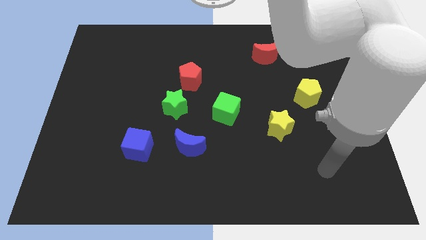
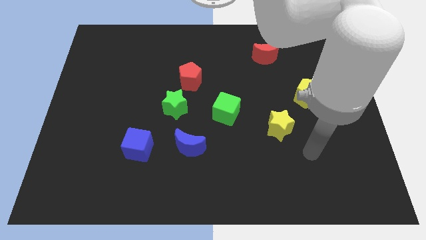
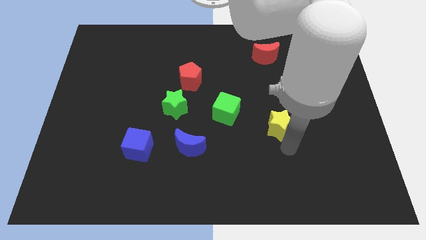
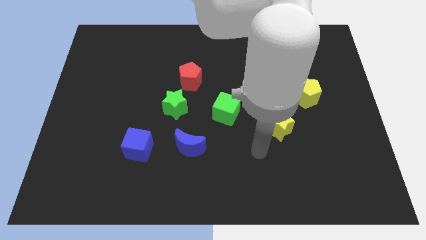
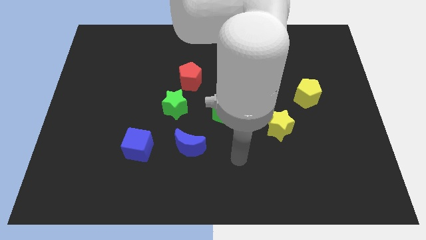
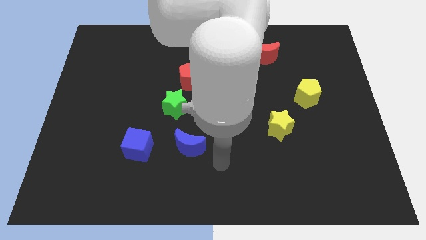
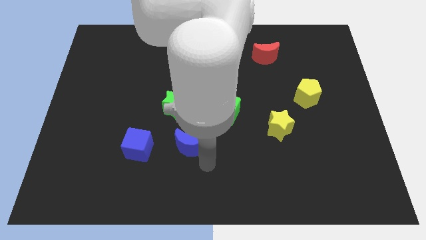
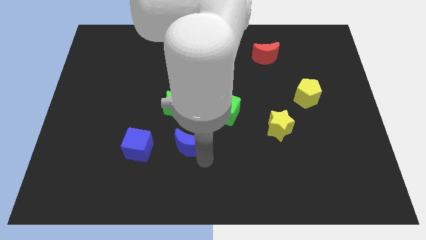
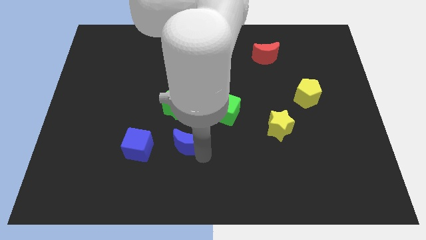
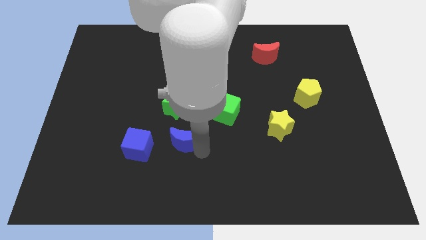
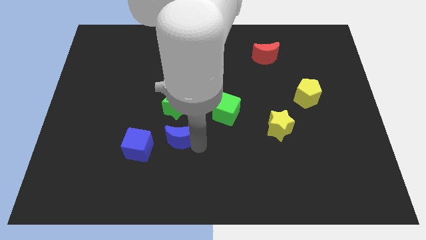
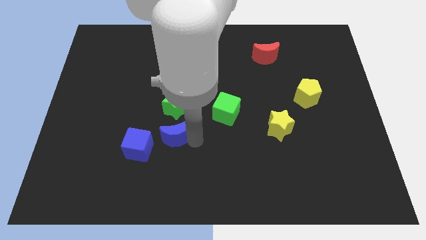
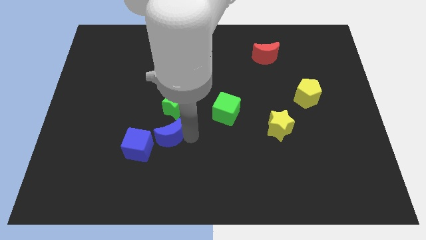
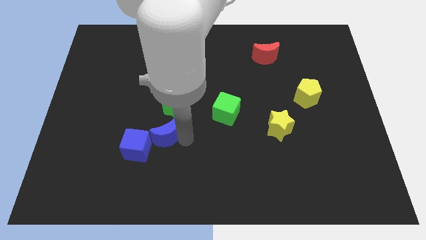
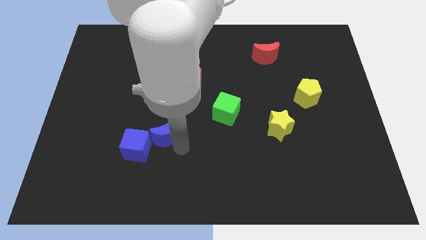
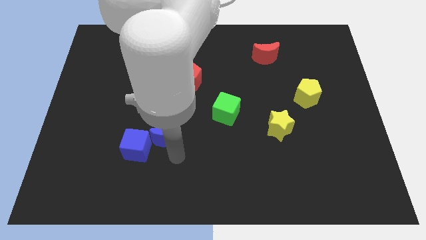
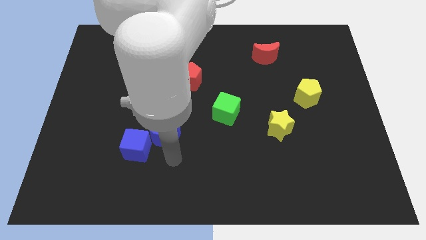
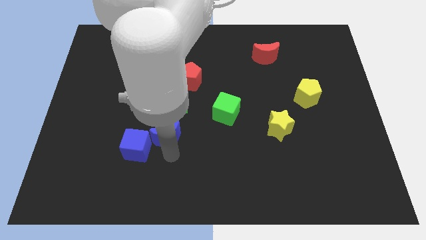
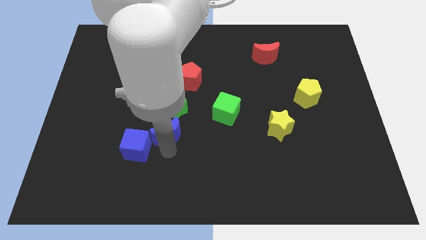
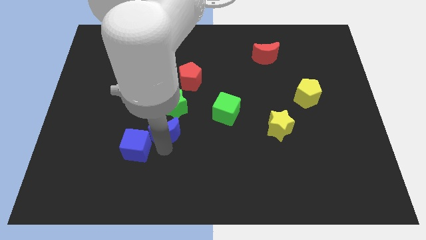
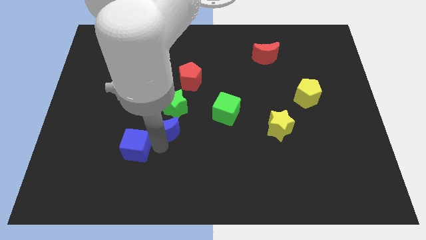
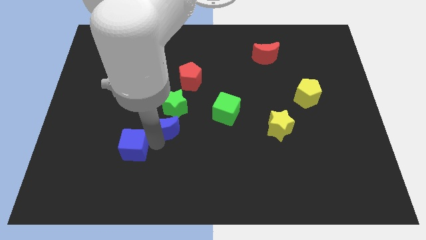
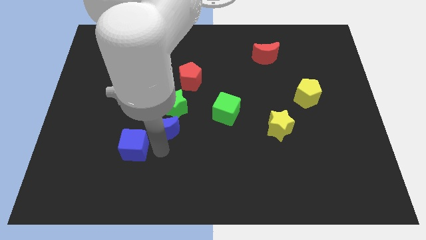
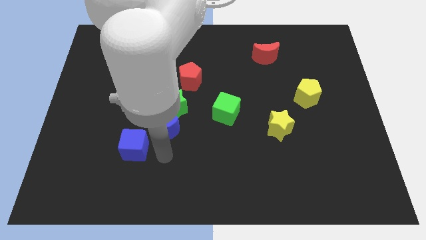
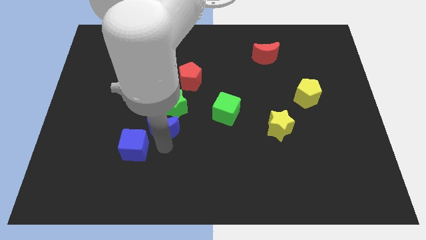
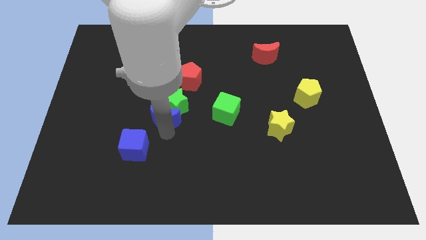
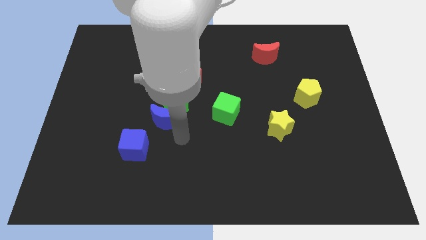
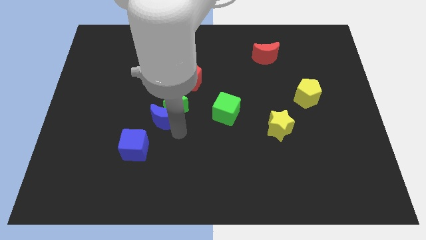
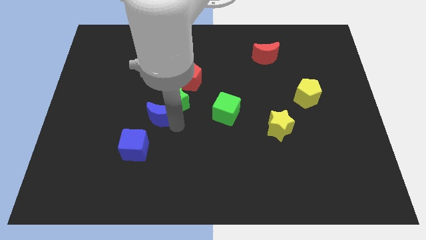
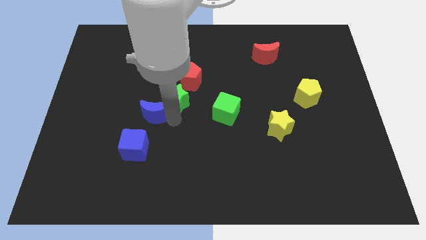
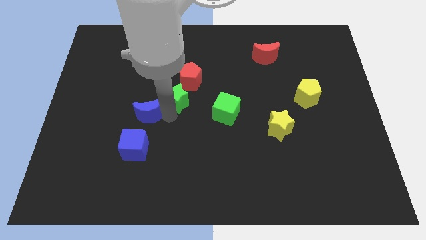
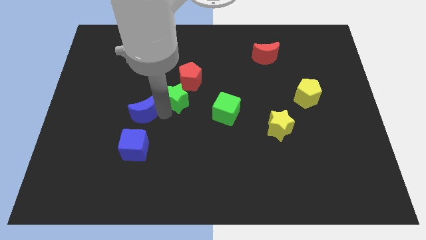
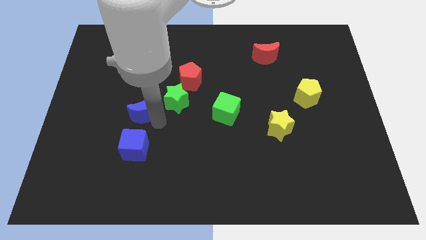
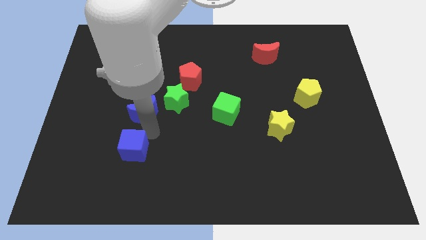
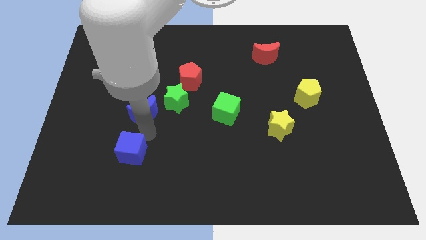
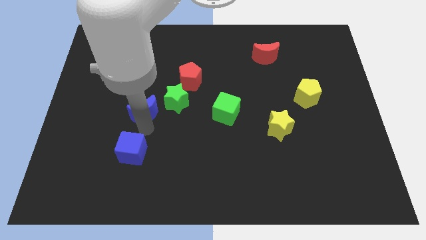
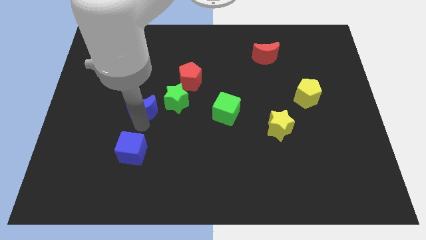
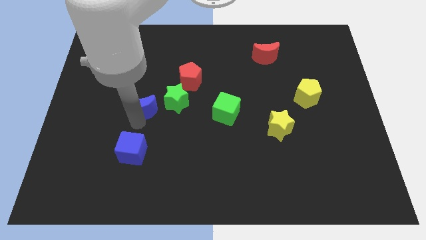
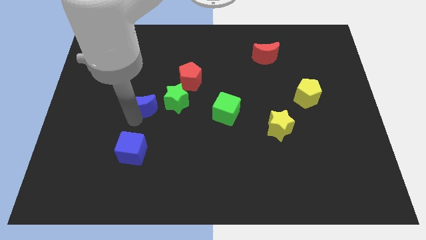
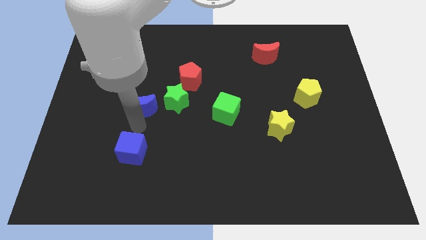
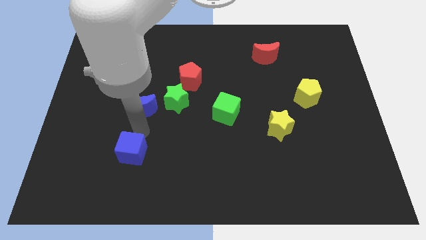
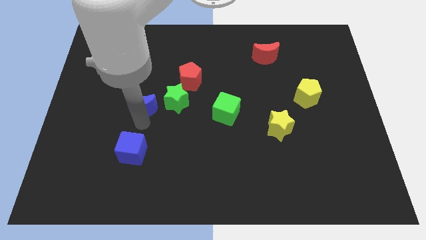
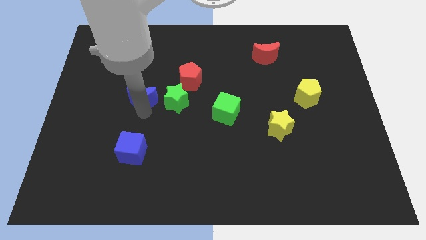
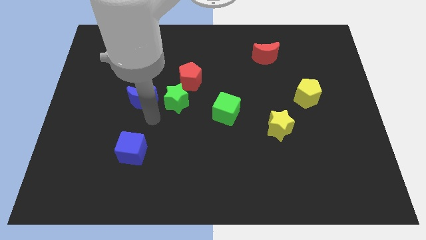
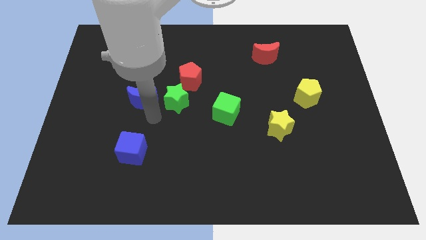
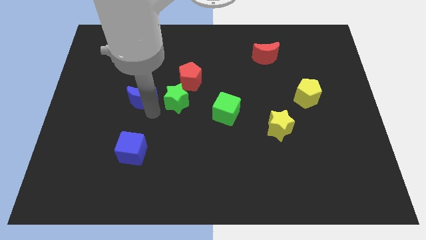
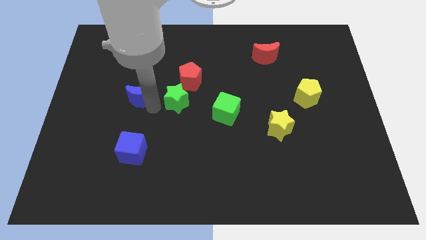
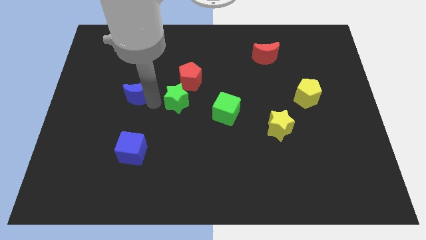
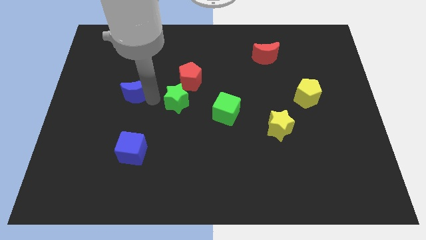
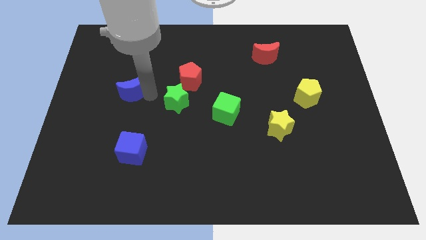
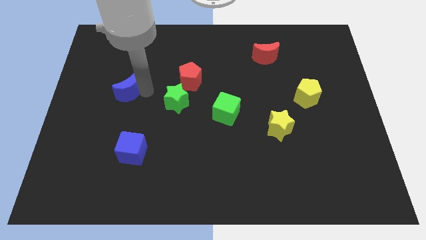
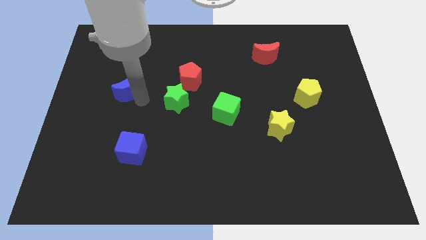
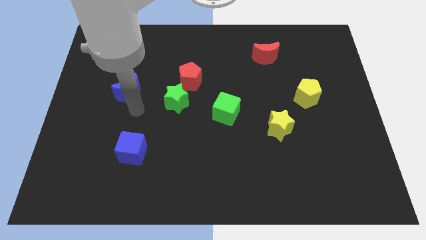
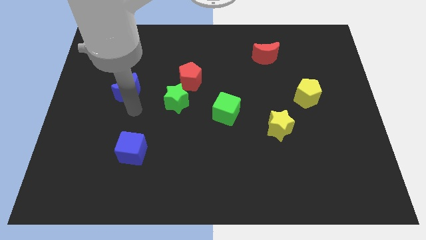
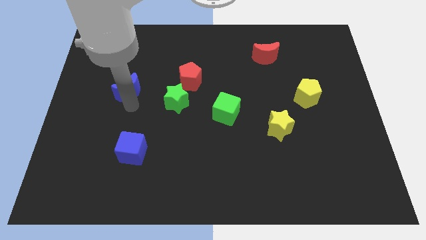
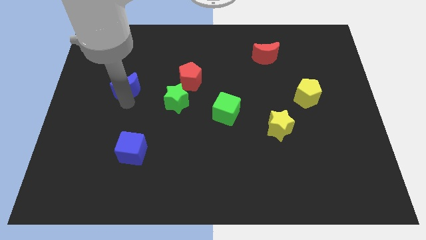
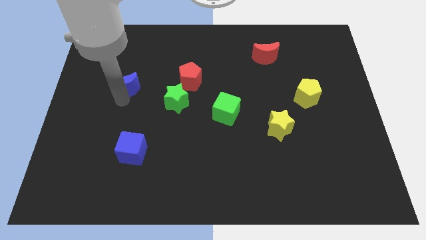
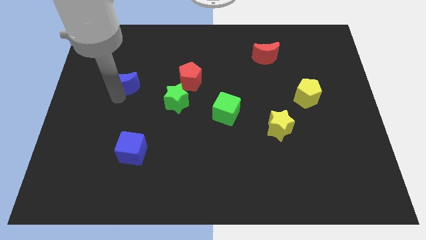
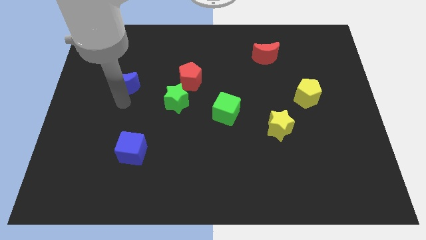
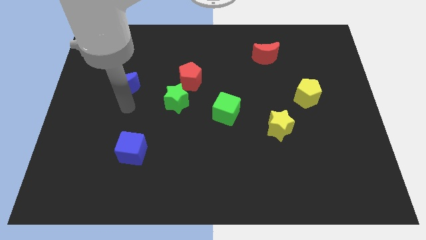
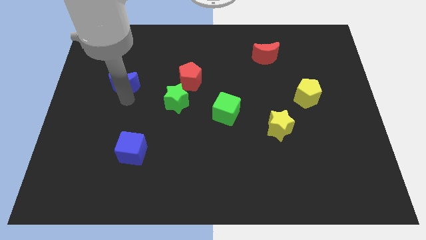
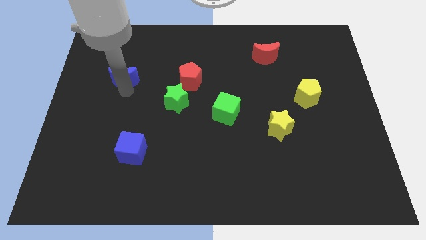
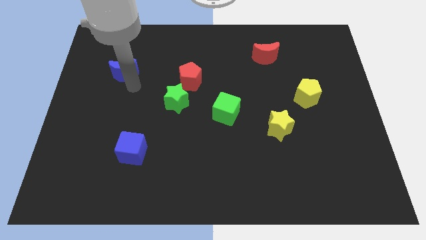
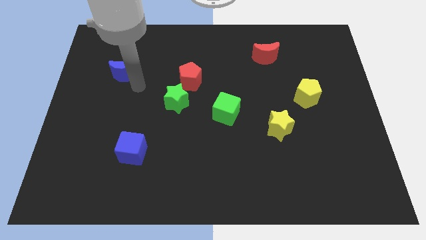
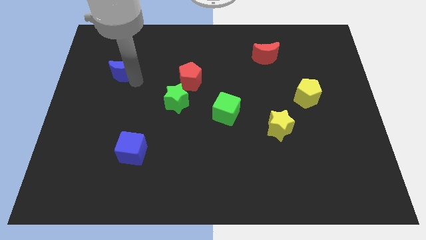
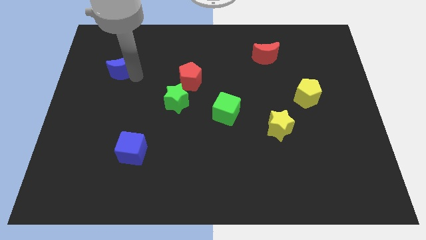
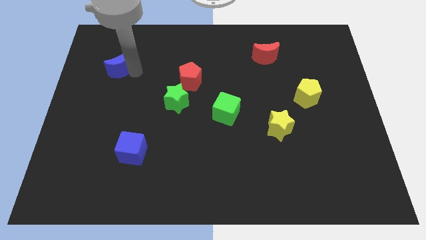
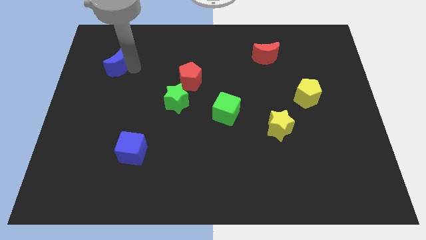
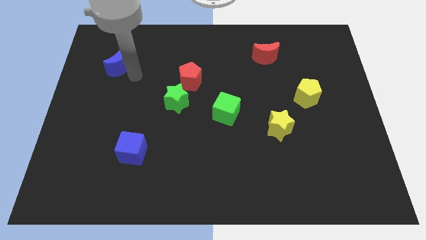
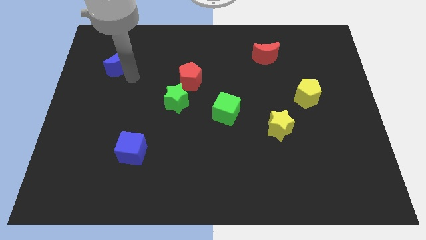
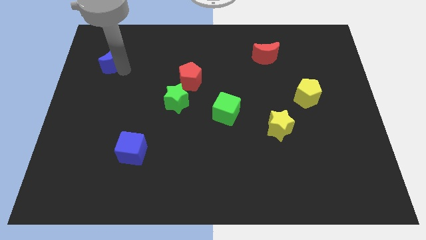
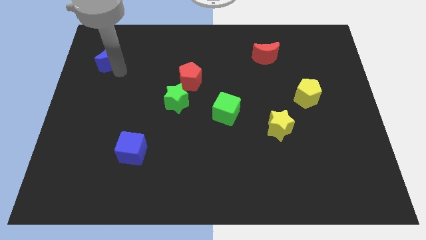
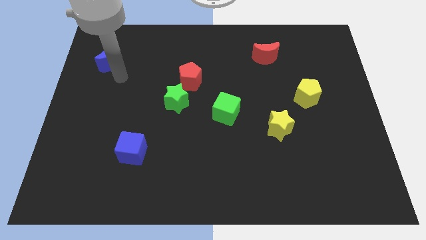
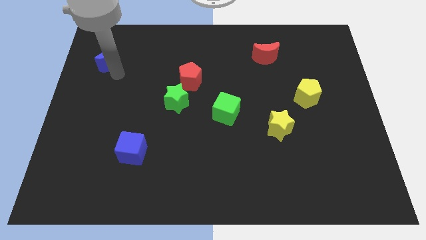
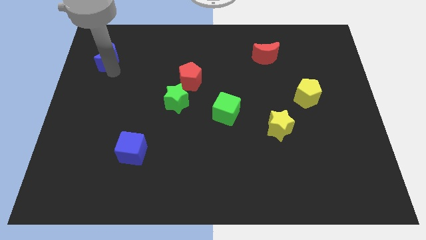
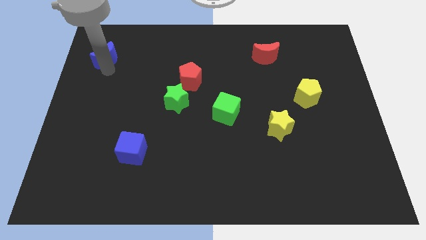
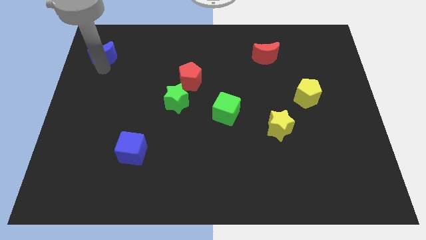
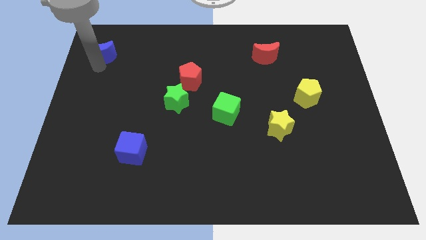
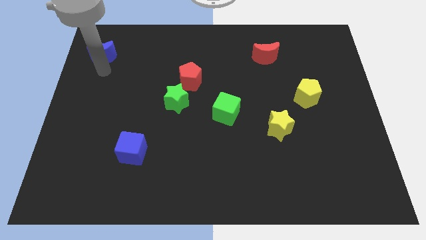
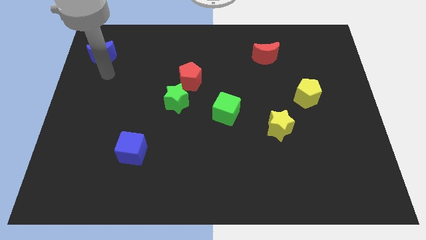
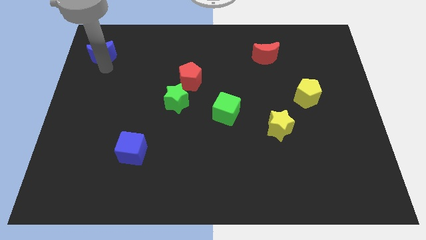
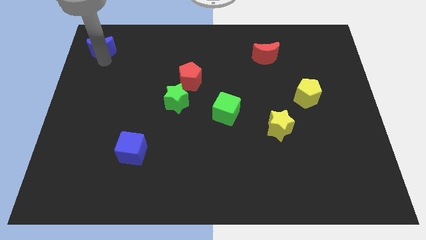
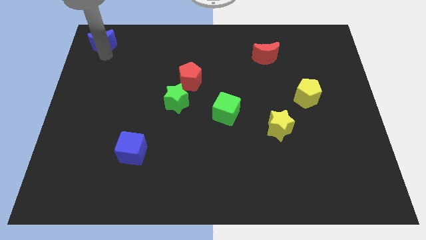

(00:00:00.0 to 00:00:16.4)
put the blue moon to the top left of the board
